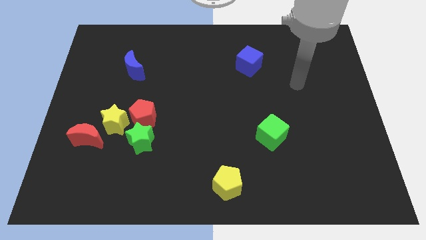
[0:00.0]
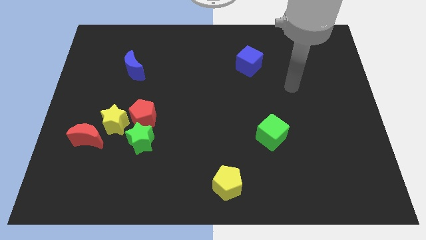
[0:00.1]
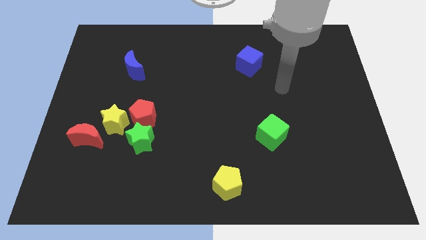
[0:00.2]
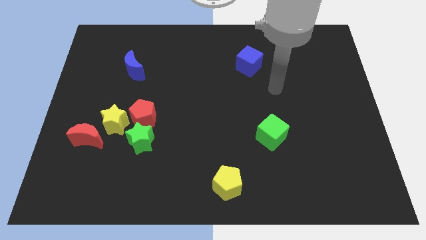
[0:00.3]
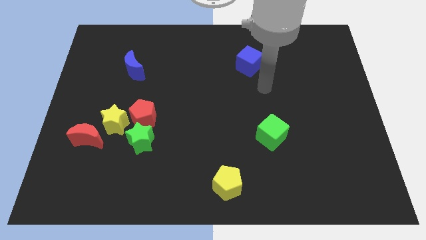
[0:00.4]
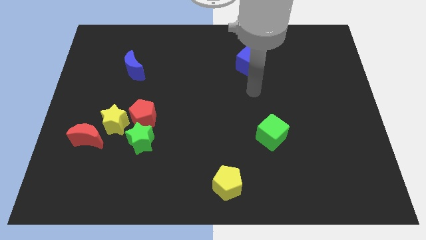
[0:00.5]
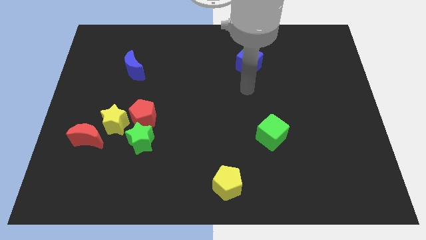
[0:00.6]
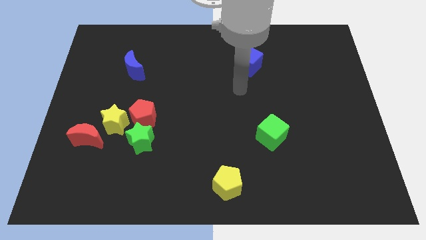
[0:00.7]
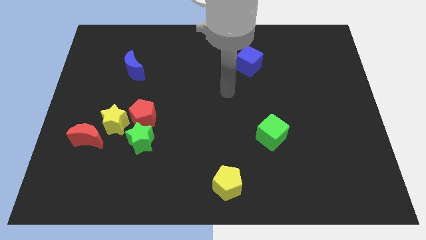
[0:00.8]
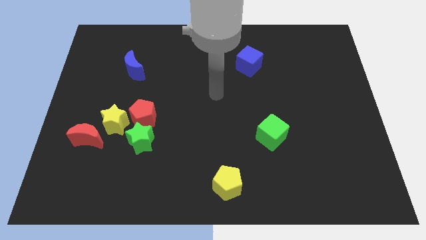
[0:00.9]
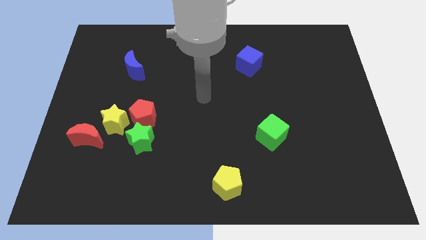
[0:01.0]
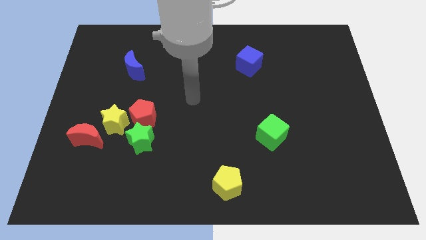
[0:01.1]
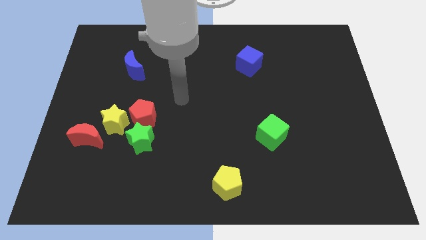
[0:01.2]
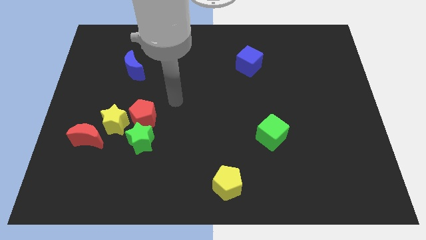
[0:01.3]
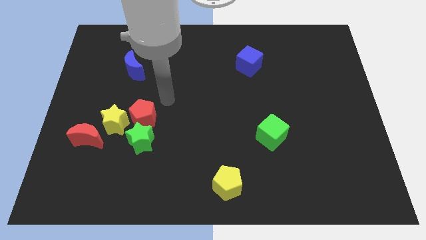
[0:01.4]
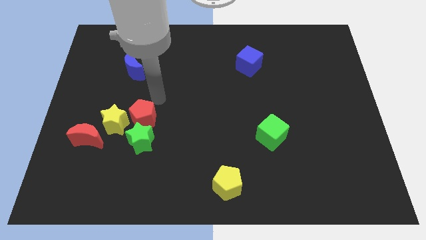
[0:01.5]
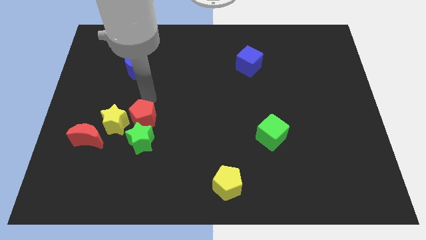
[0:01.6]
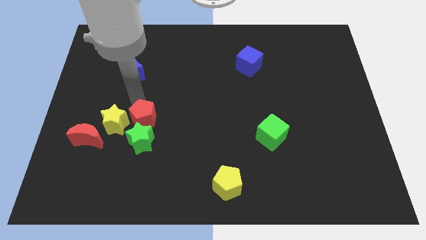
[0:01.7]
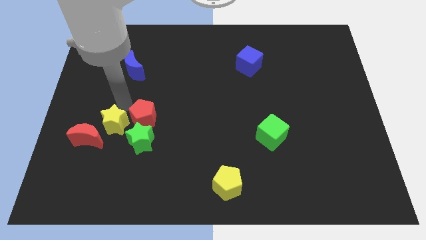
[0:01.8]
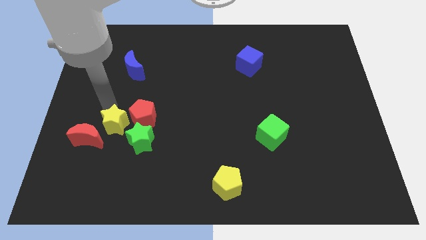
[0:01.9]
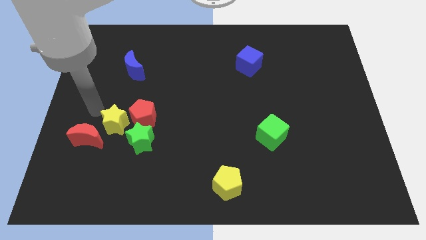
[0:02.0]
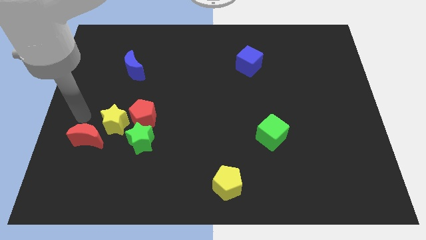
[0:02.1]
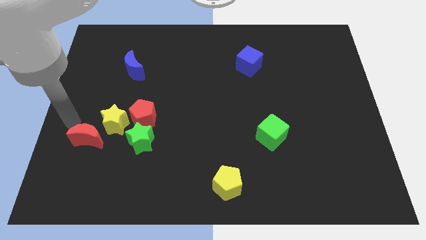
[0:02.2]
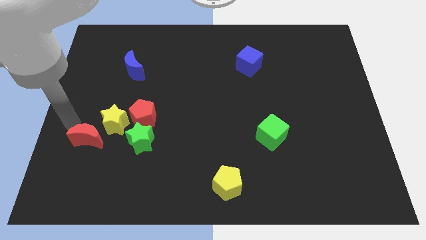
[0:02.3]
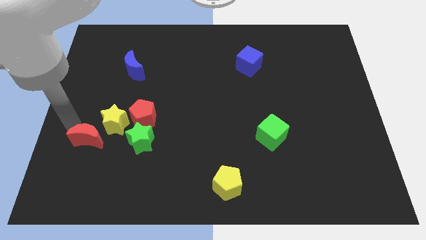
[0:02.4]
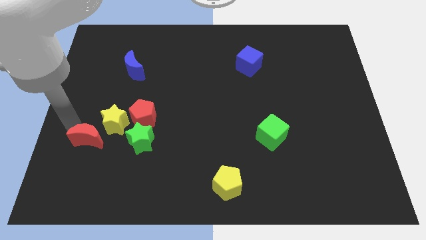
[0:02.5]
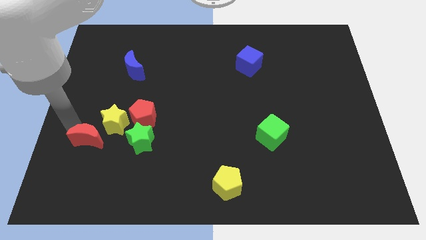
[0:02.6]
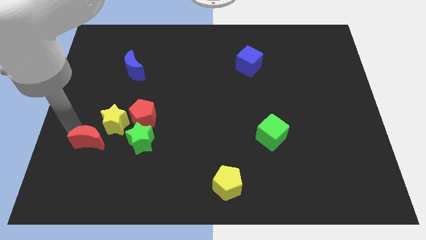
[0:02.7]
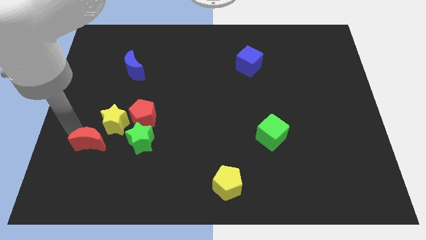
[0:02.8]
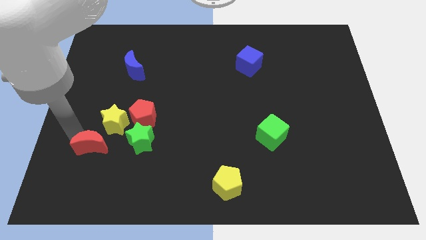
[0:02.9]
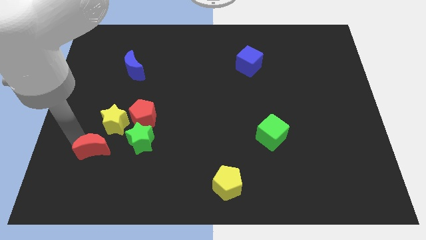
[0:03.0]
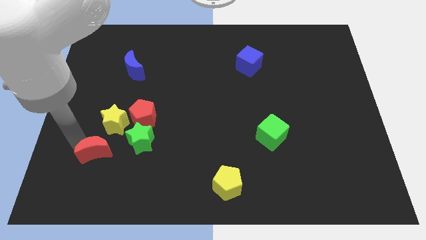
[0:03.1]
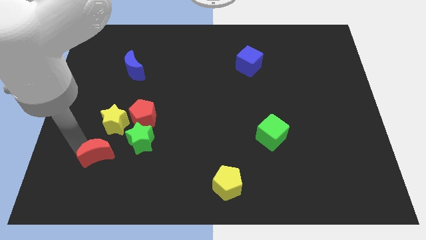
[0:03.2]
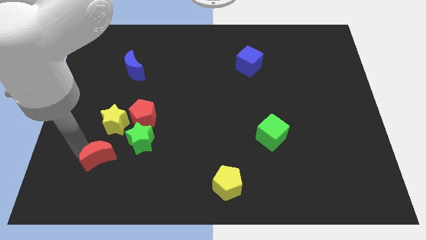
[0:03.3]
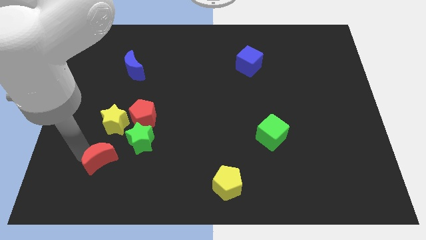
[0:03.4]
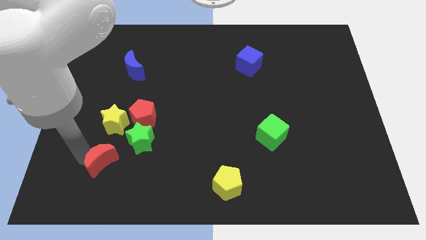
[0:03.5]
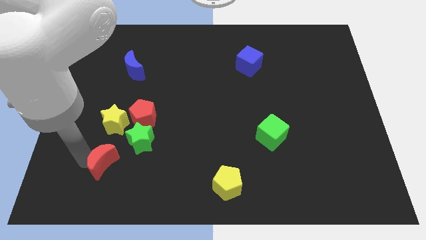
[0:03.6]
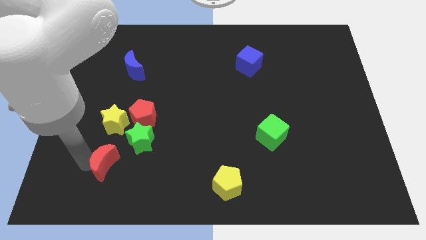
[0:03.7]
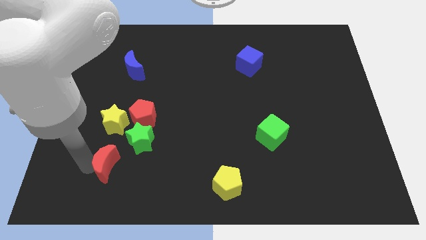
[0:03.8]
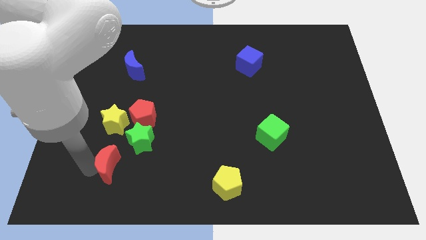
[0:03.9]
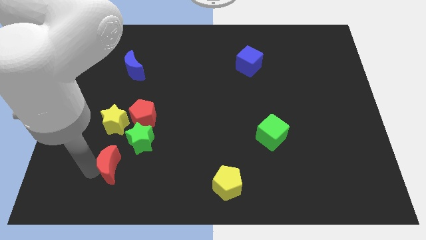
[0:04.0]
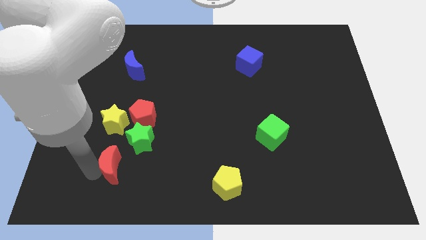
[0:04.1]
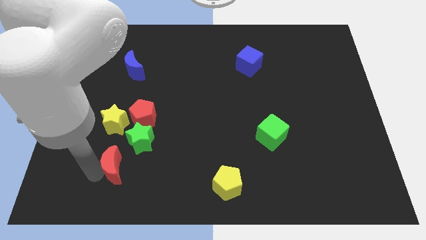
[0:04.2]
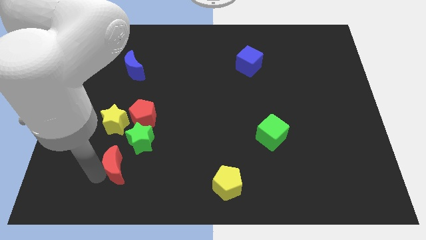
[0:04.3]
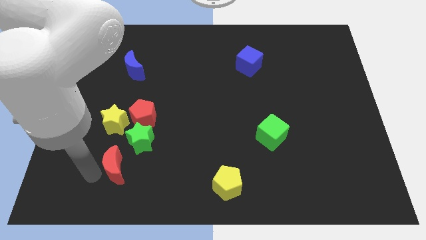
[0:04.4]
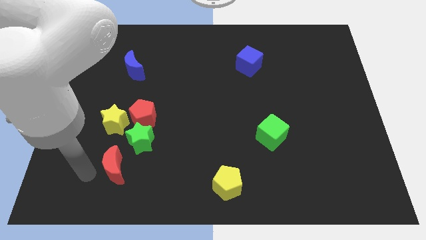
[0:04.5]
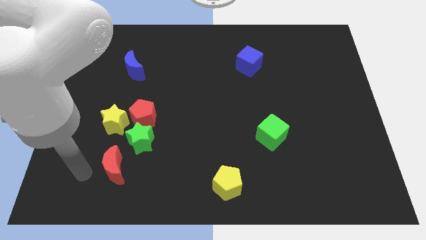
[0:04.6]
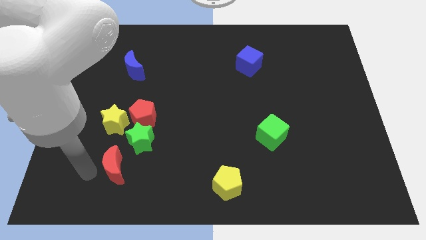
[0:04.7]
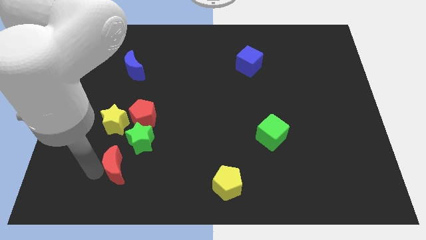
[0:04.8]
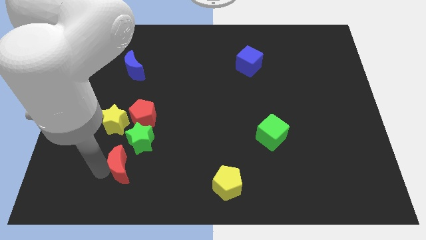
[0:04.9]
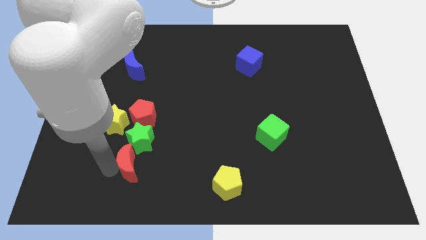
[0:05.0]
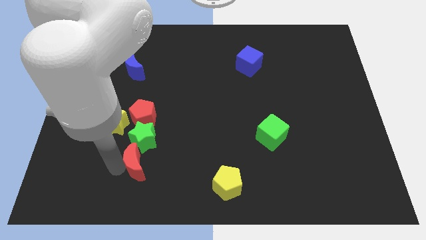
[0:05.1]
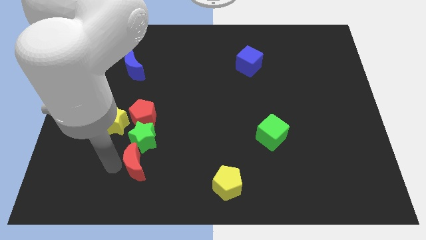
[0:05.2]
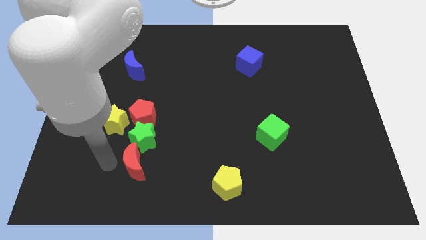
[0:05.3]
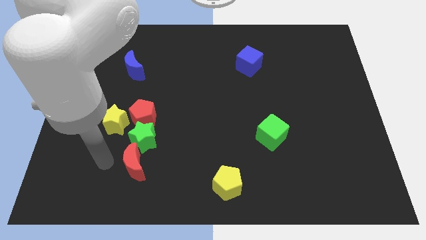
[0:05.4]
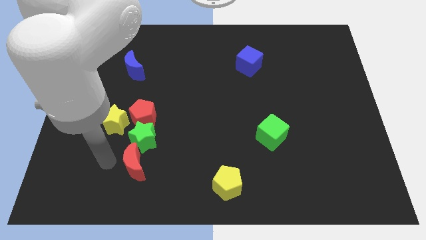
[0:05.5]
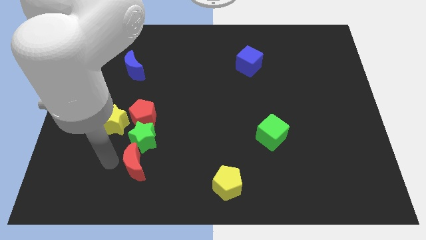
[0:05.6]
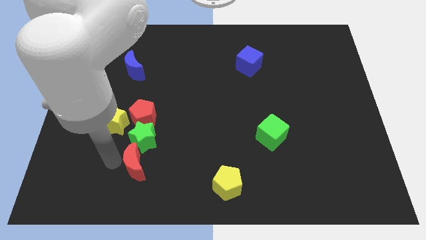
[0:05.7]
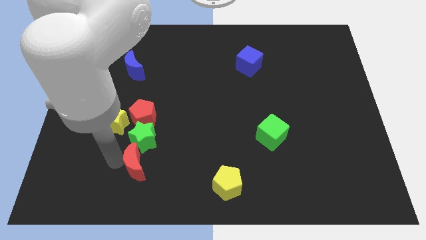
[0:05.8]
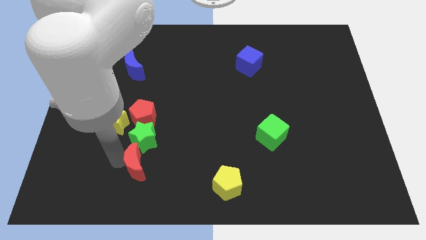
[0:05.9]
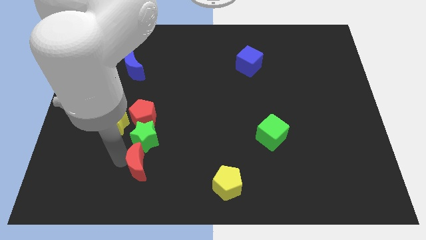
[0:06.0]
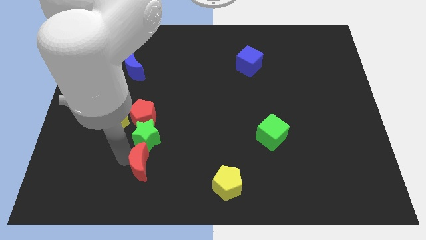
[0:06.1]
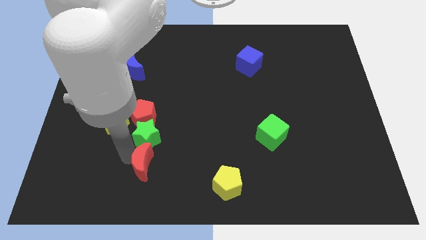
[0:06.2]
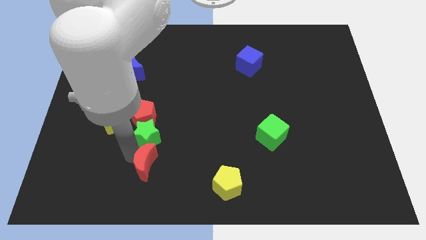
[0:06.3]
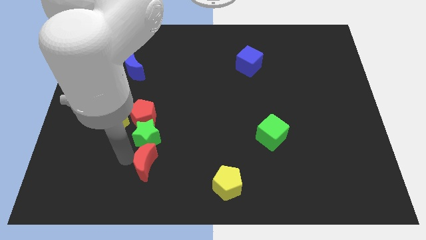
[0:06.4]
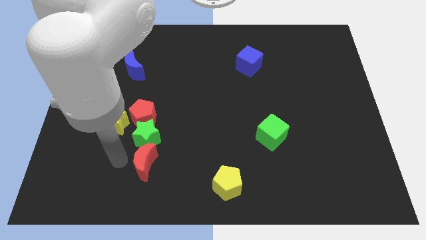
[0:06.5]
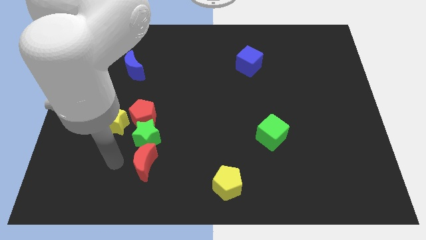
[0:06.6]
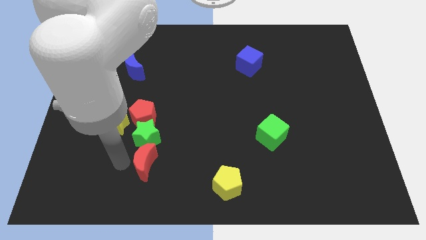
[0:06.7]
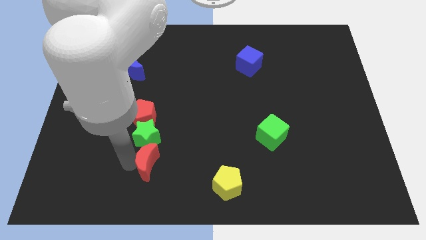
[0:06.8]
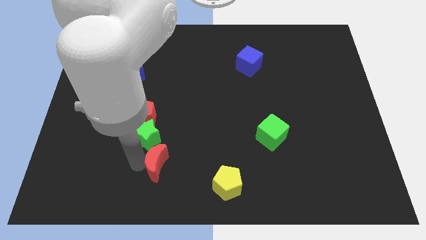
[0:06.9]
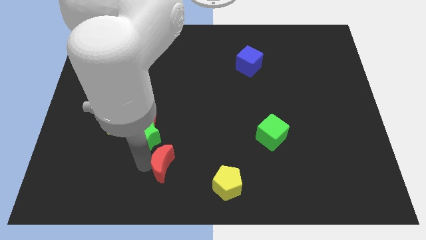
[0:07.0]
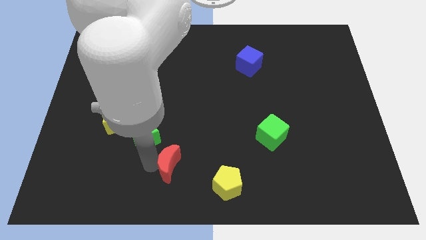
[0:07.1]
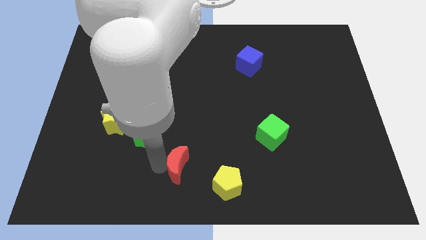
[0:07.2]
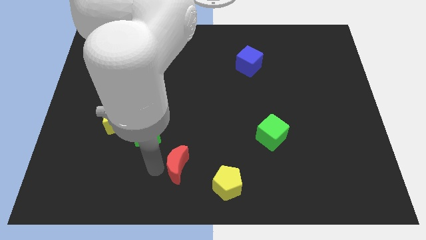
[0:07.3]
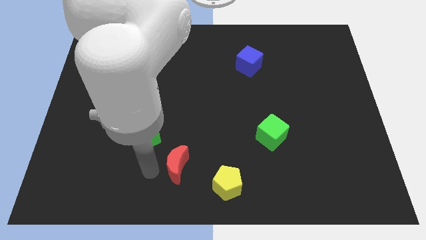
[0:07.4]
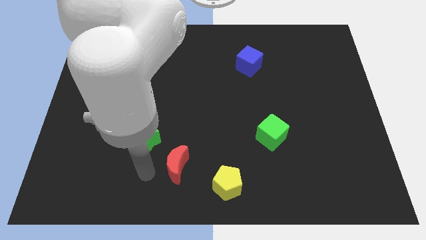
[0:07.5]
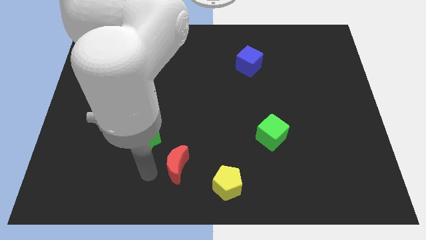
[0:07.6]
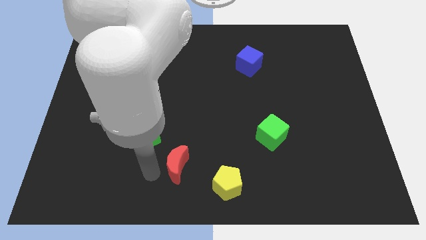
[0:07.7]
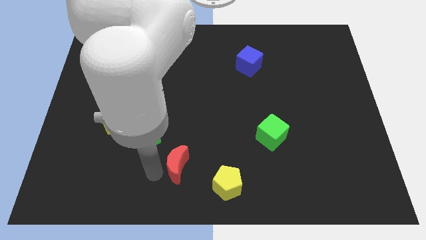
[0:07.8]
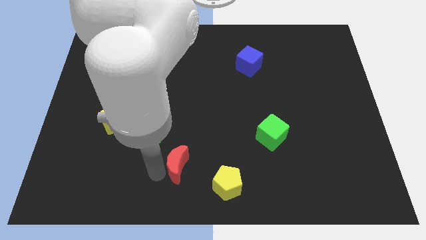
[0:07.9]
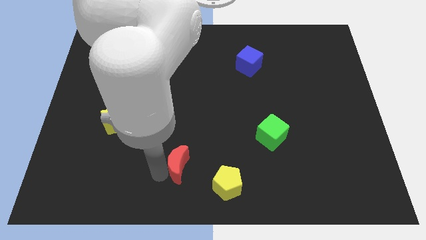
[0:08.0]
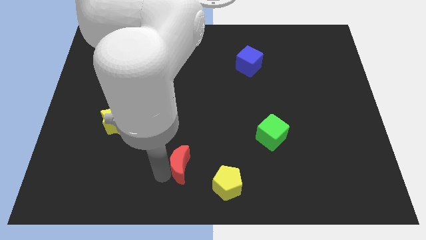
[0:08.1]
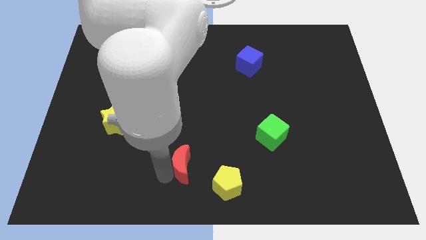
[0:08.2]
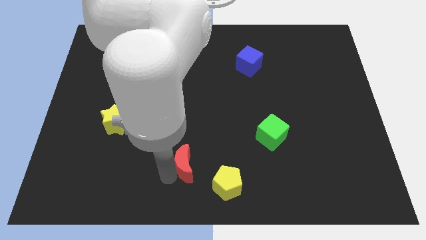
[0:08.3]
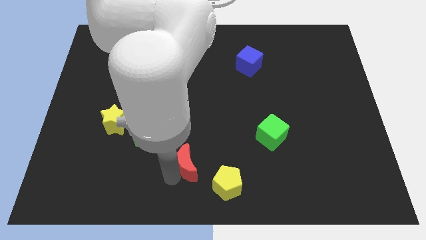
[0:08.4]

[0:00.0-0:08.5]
push the red moon to the right
